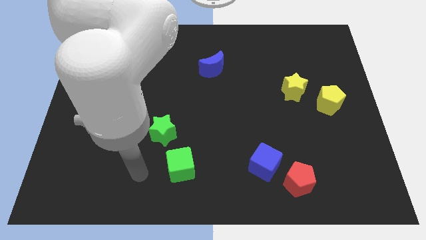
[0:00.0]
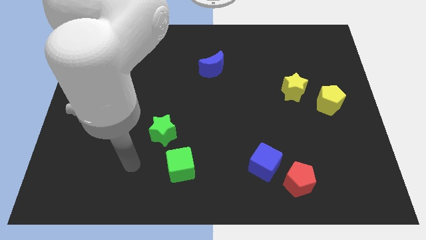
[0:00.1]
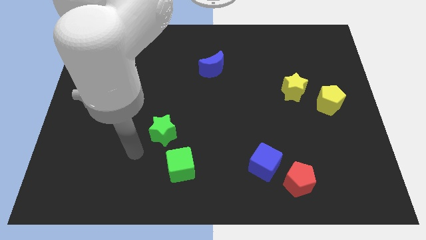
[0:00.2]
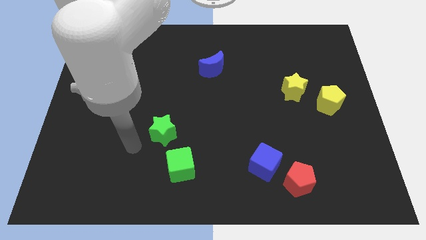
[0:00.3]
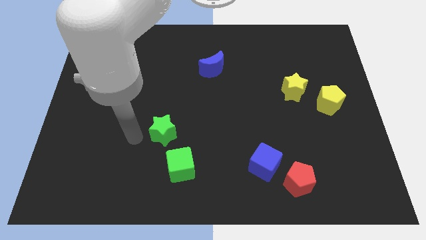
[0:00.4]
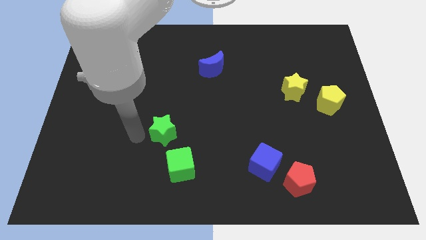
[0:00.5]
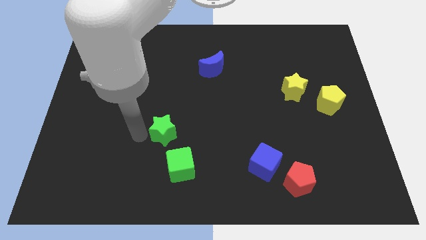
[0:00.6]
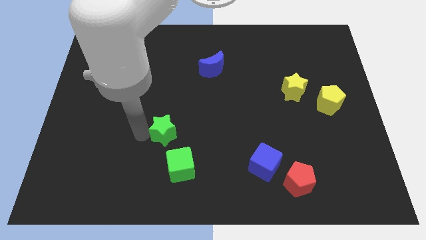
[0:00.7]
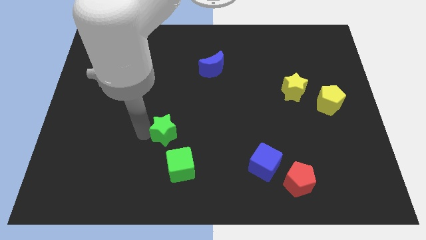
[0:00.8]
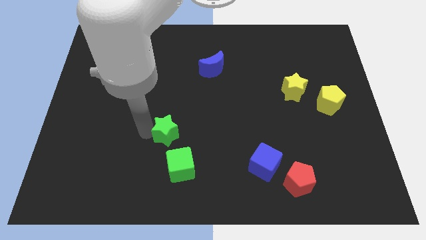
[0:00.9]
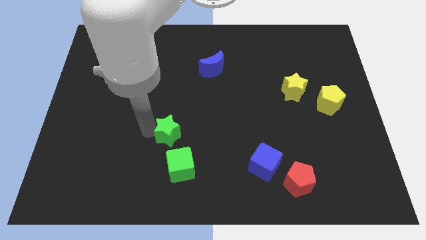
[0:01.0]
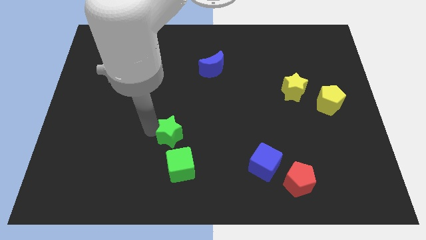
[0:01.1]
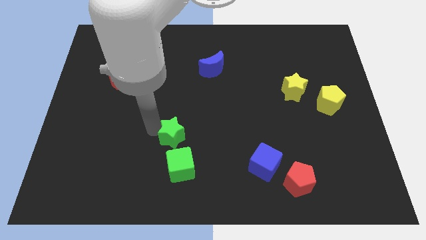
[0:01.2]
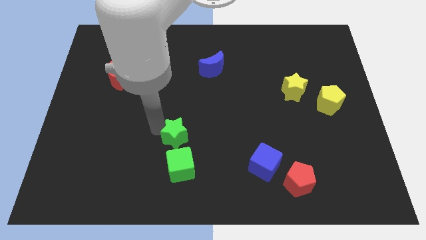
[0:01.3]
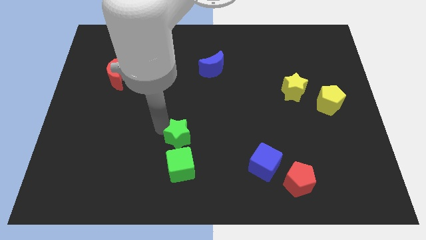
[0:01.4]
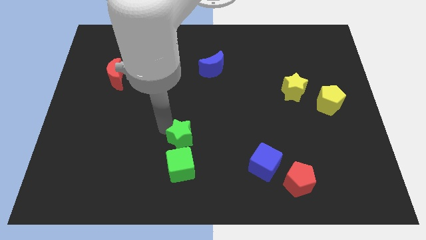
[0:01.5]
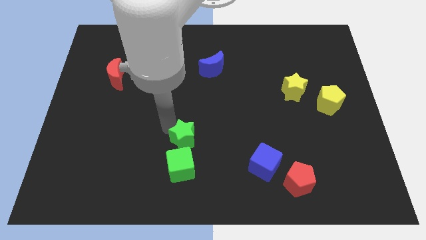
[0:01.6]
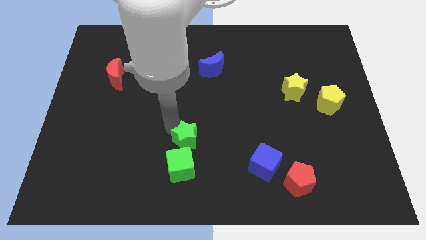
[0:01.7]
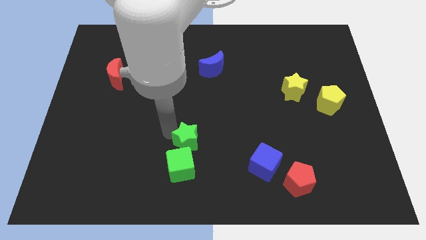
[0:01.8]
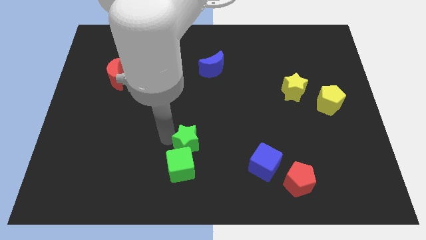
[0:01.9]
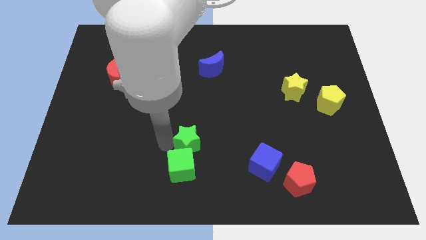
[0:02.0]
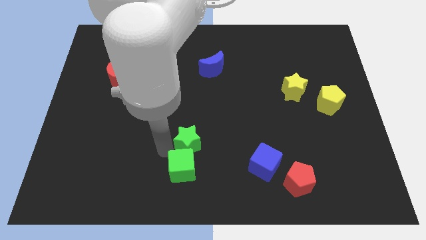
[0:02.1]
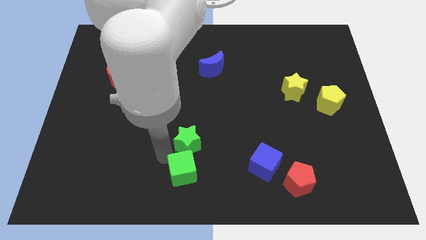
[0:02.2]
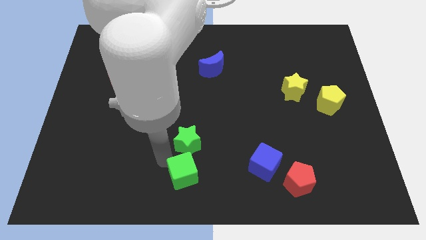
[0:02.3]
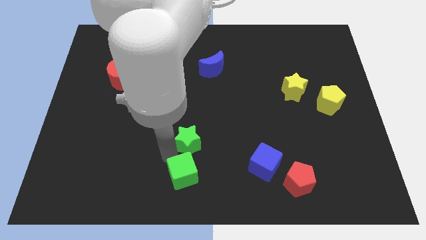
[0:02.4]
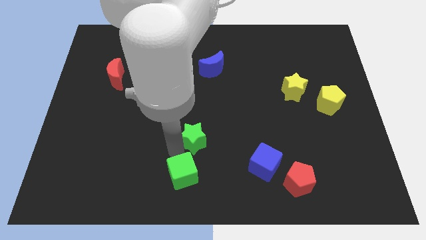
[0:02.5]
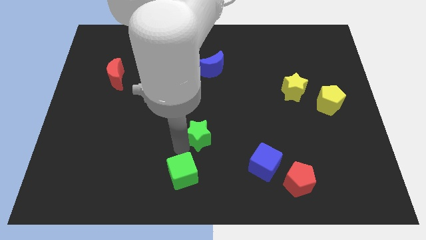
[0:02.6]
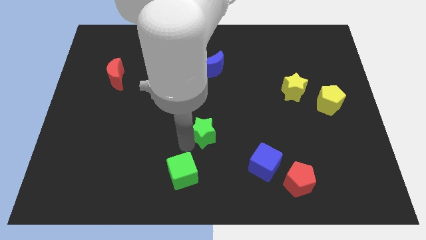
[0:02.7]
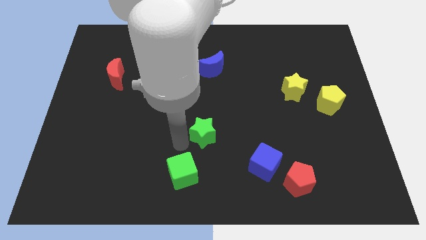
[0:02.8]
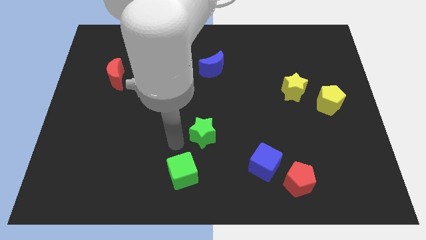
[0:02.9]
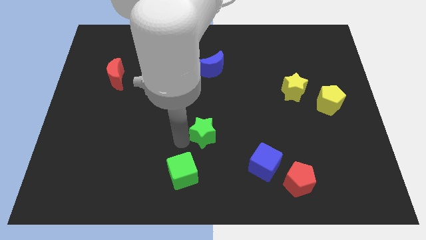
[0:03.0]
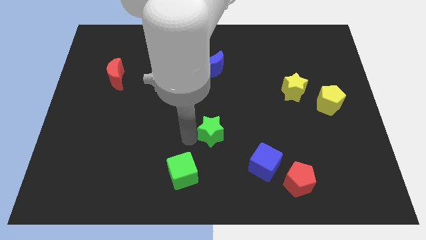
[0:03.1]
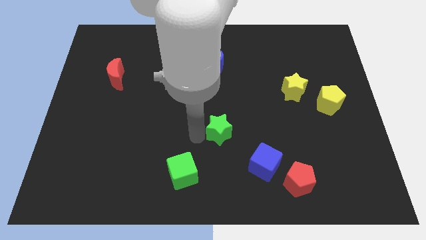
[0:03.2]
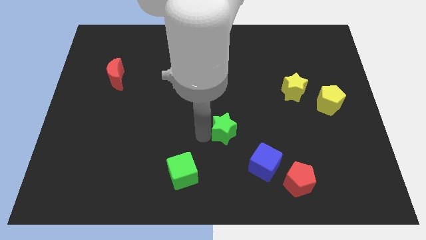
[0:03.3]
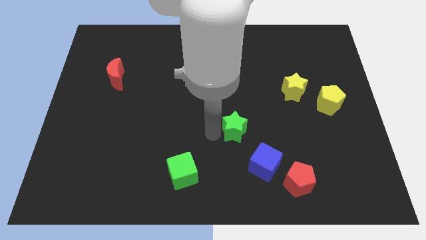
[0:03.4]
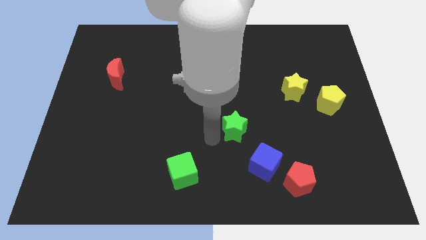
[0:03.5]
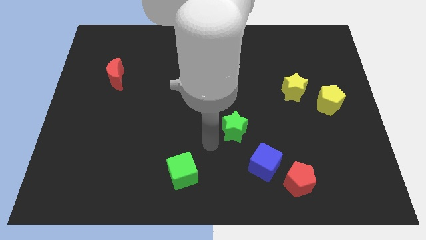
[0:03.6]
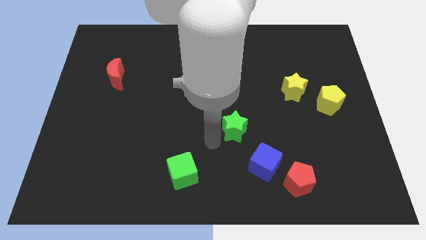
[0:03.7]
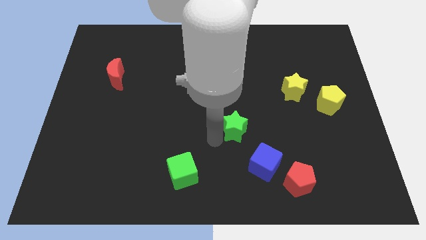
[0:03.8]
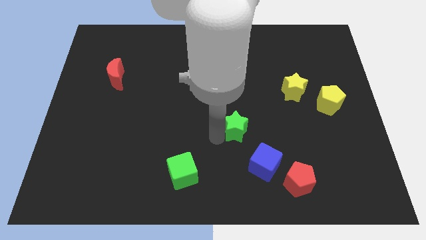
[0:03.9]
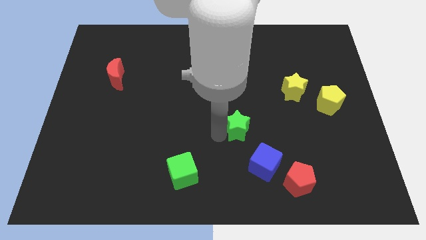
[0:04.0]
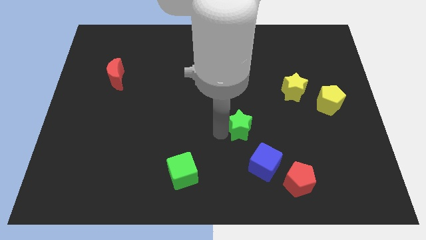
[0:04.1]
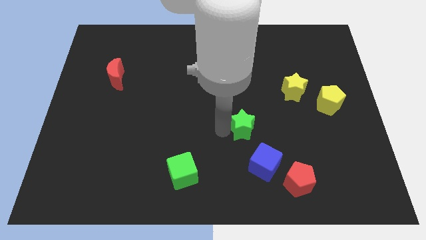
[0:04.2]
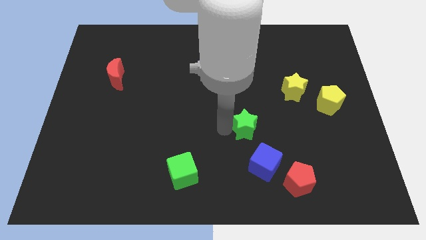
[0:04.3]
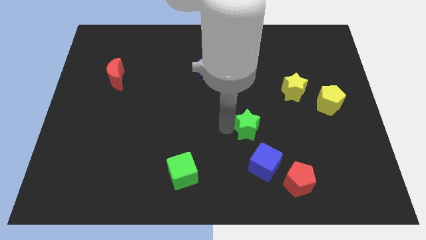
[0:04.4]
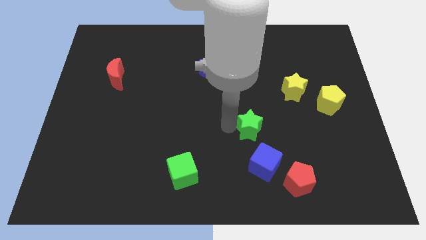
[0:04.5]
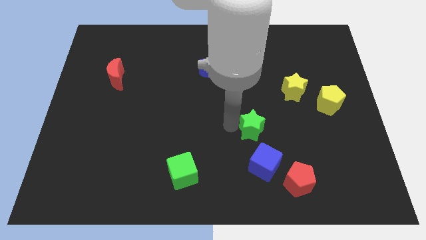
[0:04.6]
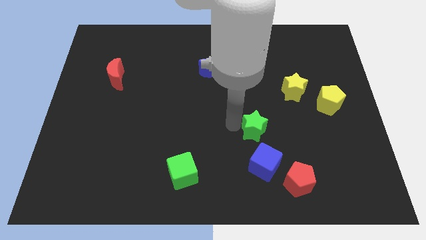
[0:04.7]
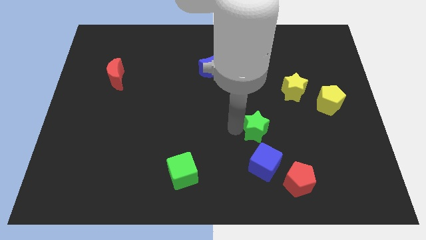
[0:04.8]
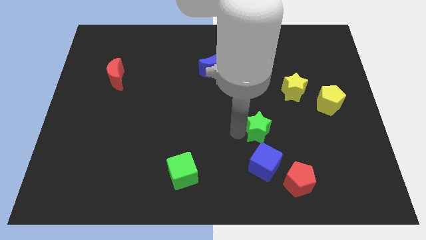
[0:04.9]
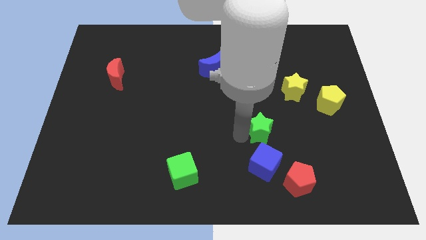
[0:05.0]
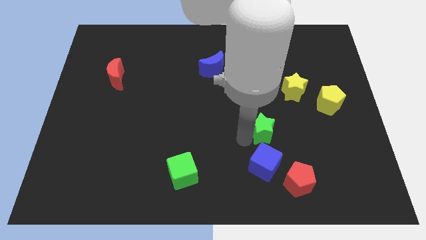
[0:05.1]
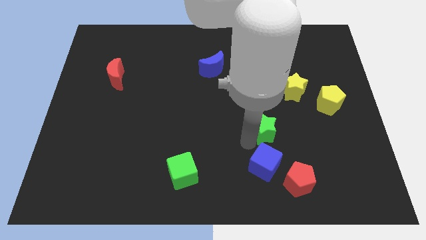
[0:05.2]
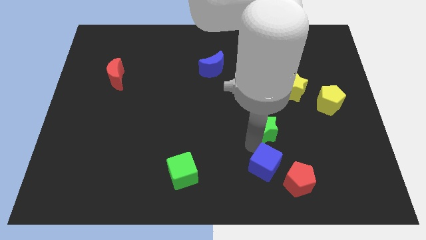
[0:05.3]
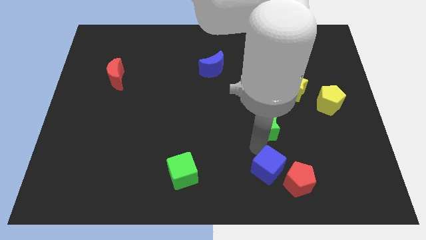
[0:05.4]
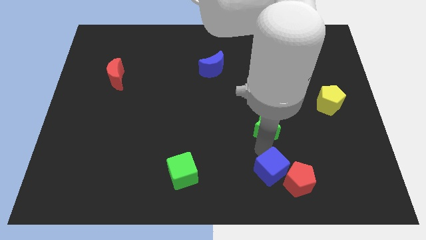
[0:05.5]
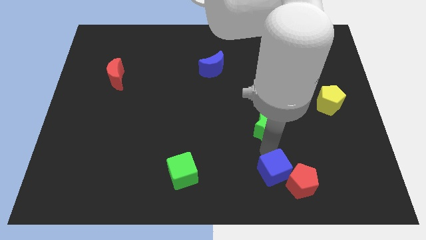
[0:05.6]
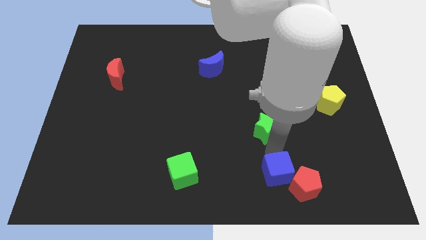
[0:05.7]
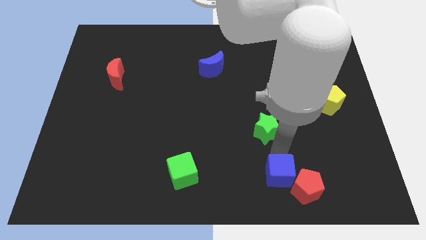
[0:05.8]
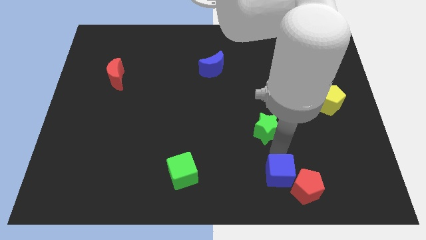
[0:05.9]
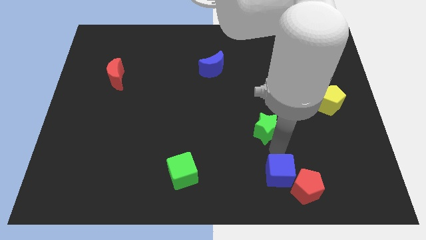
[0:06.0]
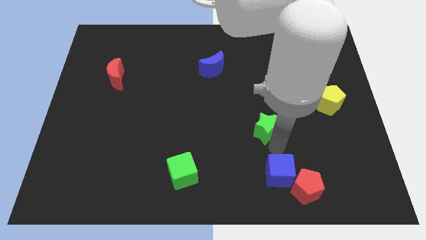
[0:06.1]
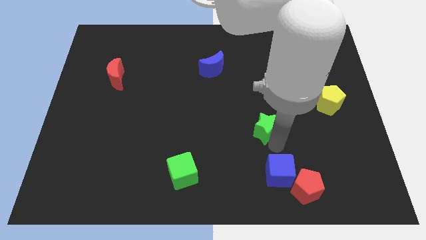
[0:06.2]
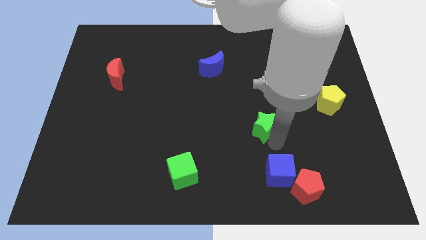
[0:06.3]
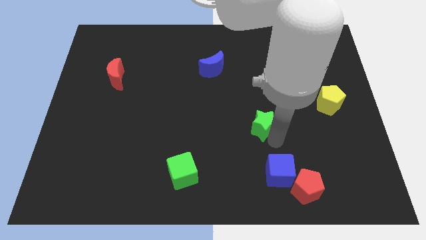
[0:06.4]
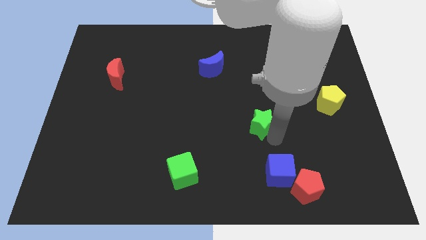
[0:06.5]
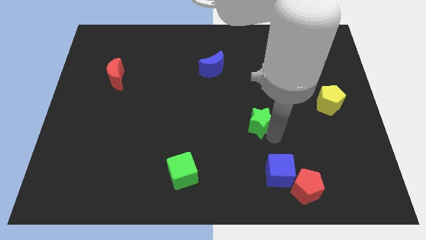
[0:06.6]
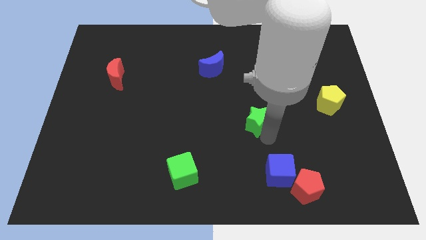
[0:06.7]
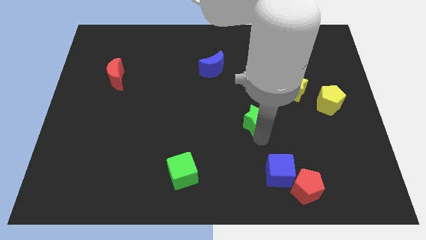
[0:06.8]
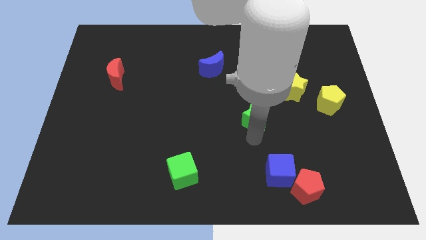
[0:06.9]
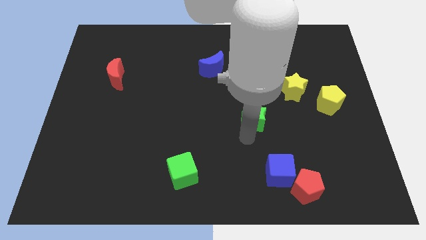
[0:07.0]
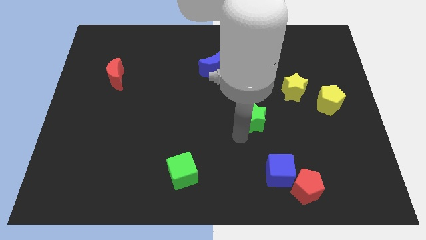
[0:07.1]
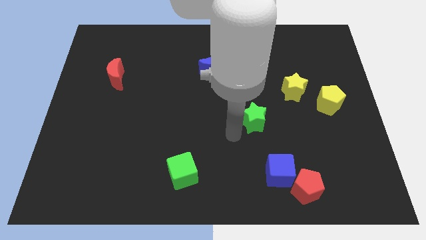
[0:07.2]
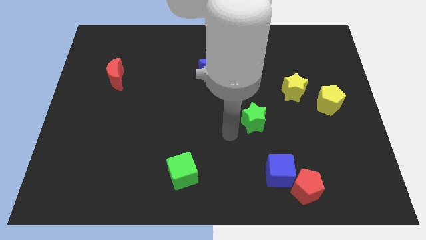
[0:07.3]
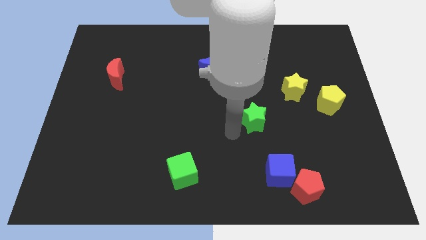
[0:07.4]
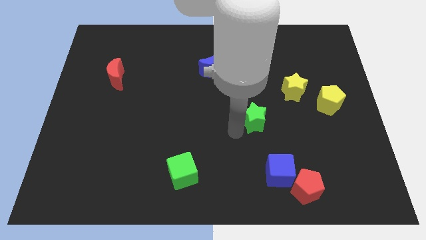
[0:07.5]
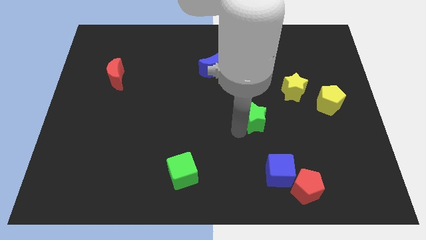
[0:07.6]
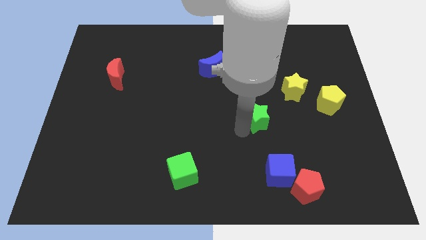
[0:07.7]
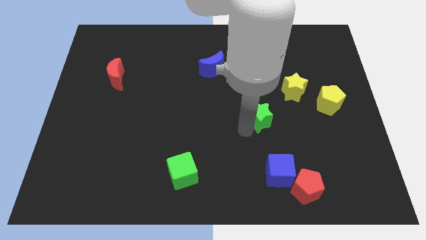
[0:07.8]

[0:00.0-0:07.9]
move the green star to the bottom left side of the yellow star
